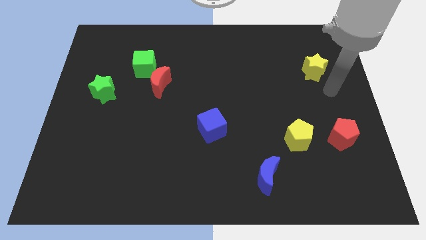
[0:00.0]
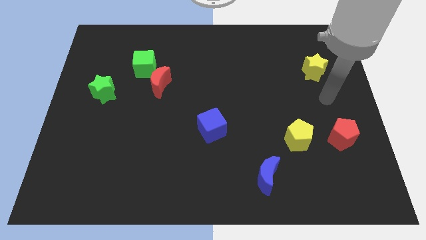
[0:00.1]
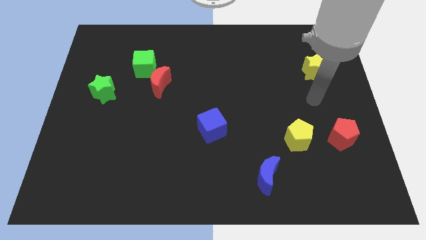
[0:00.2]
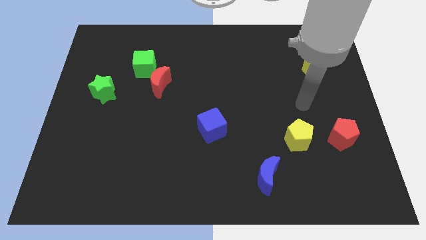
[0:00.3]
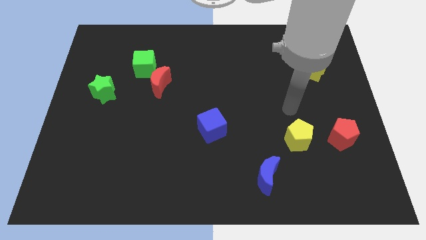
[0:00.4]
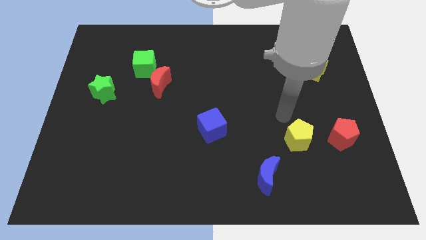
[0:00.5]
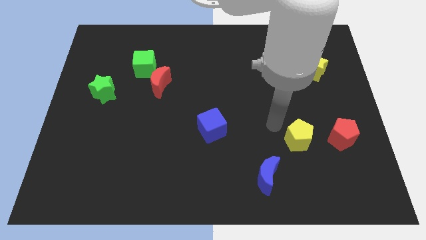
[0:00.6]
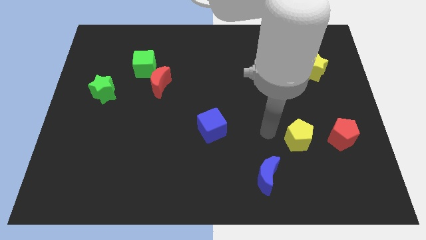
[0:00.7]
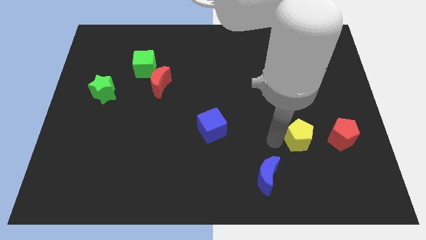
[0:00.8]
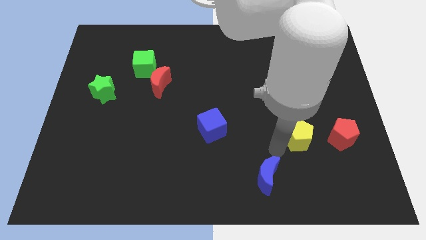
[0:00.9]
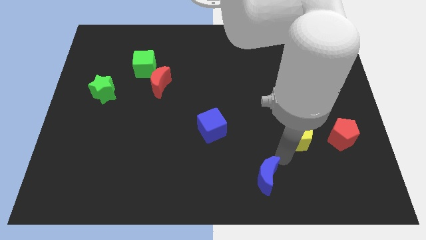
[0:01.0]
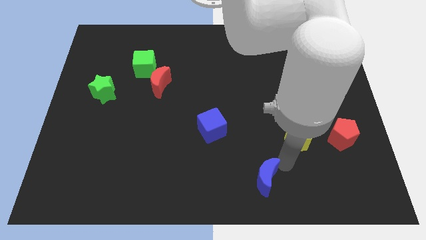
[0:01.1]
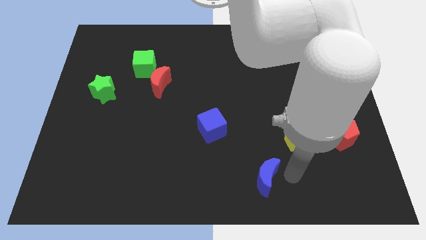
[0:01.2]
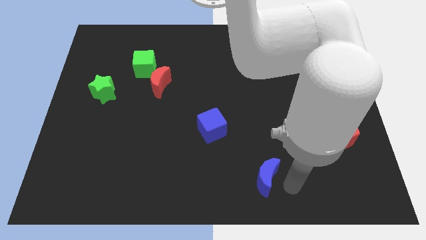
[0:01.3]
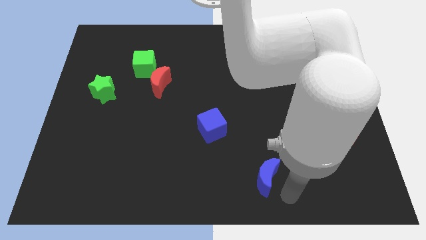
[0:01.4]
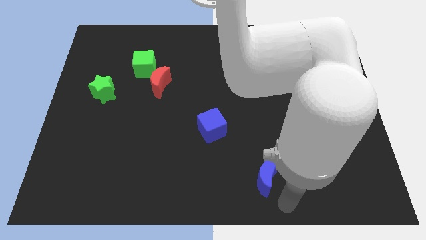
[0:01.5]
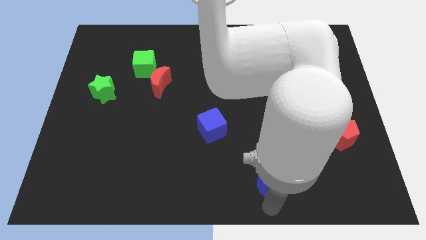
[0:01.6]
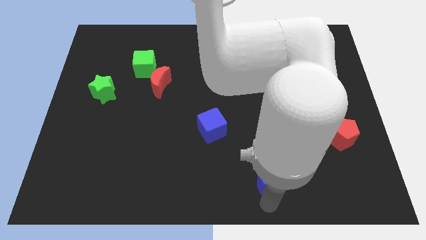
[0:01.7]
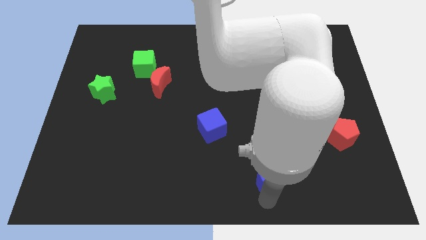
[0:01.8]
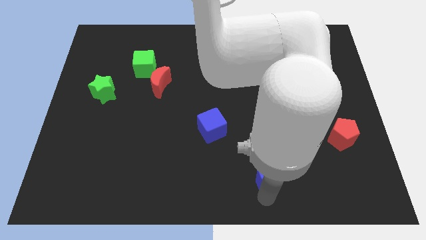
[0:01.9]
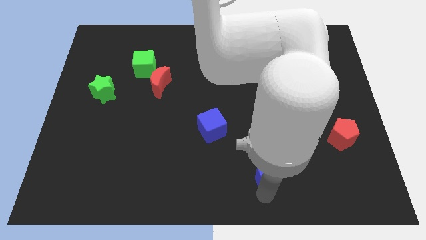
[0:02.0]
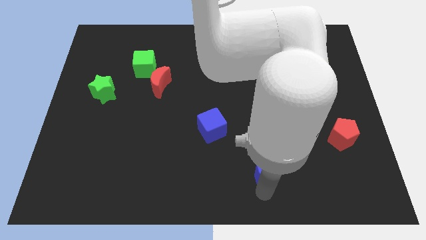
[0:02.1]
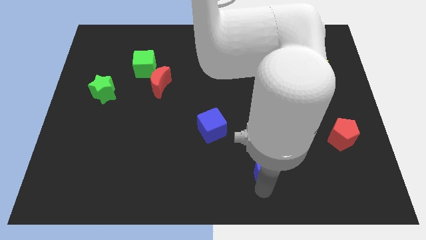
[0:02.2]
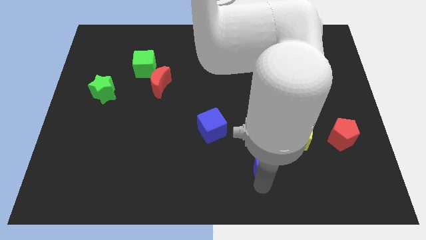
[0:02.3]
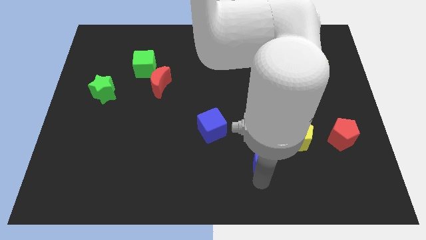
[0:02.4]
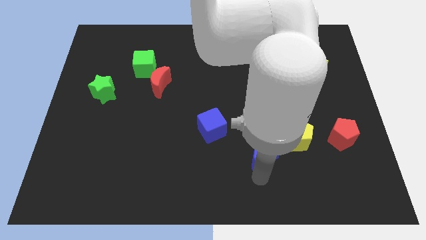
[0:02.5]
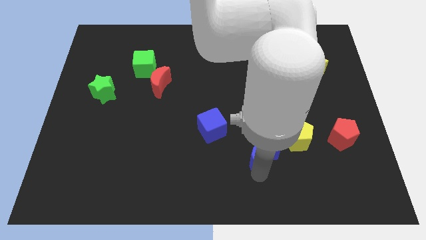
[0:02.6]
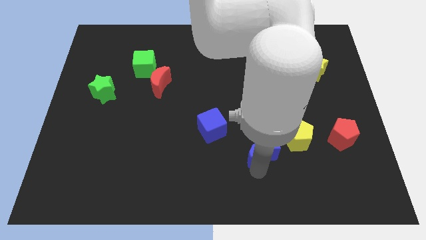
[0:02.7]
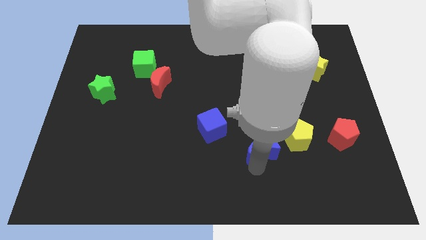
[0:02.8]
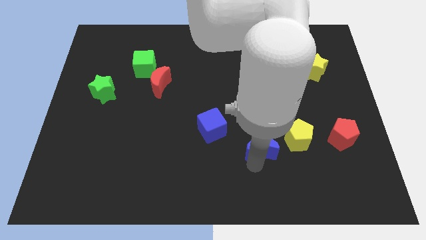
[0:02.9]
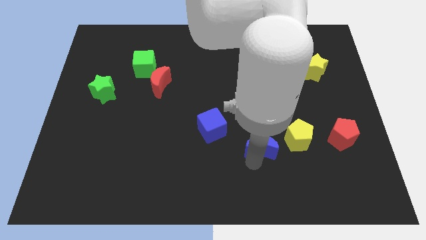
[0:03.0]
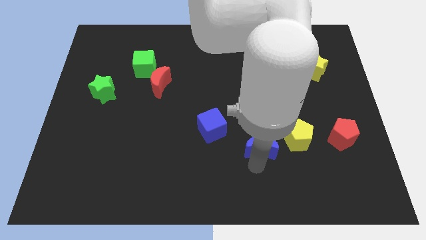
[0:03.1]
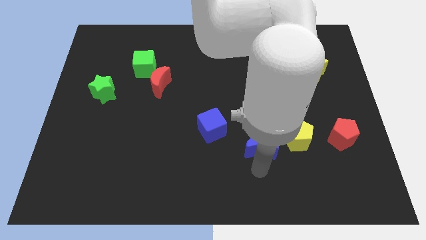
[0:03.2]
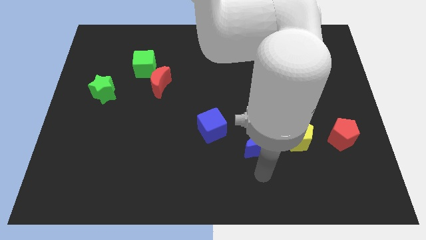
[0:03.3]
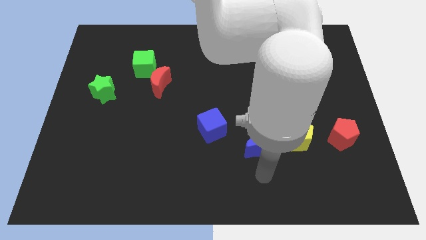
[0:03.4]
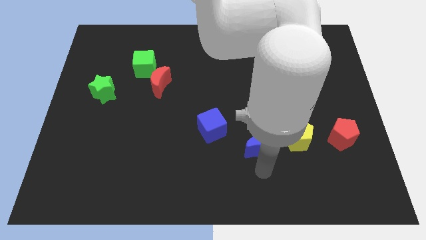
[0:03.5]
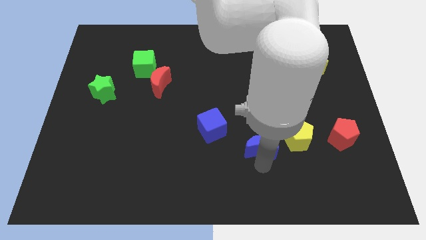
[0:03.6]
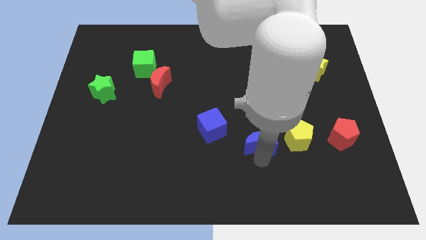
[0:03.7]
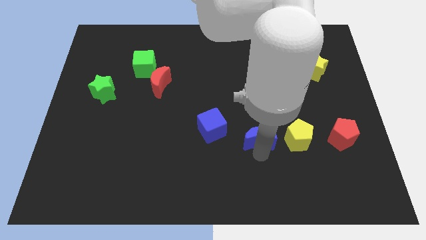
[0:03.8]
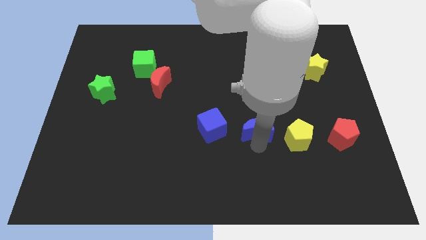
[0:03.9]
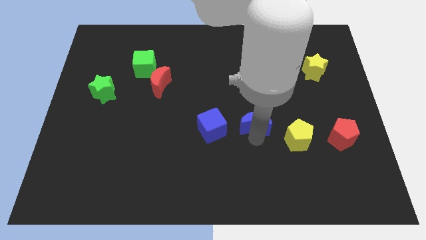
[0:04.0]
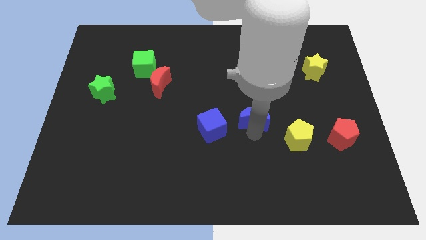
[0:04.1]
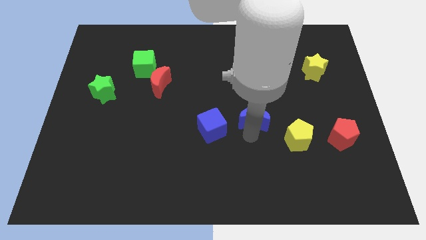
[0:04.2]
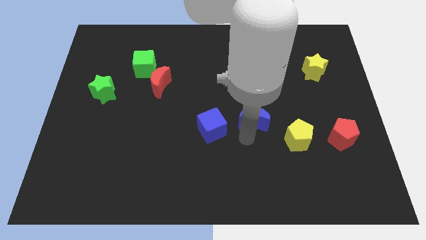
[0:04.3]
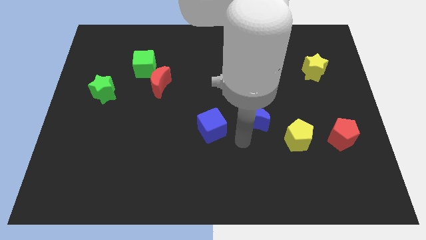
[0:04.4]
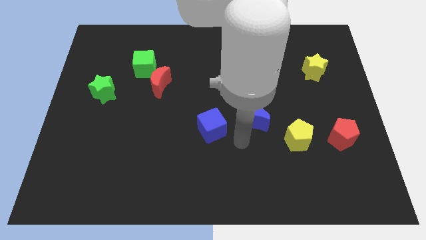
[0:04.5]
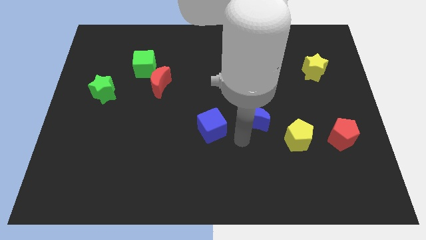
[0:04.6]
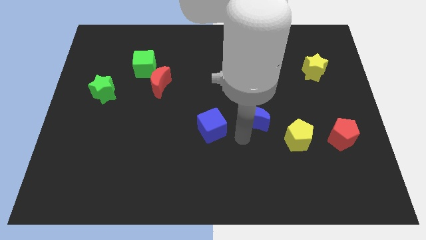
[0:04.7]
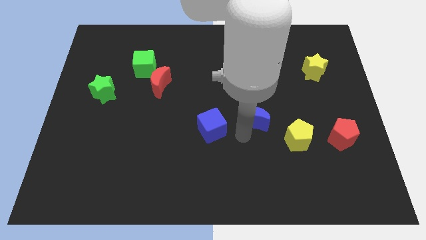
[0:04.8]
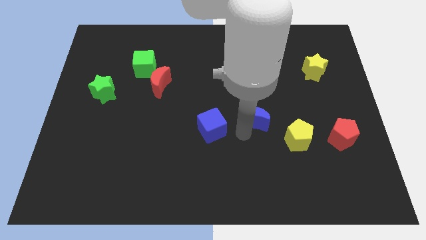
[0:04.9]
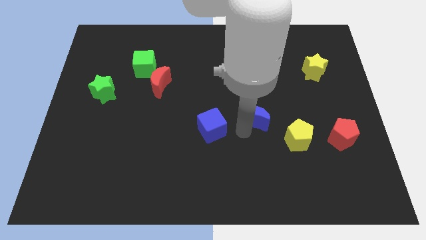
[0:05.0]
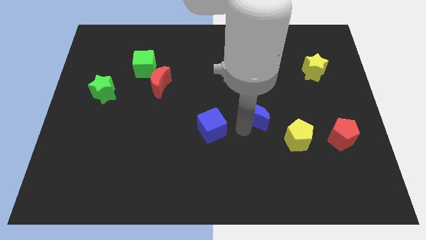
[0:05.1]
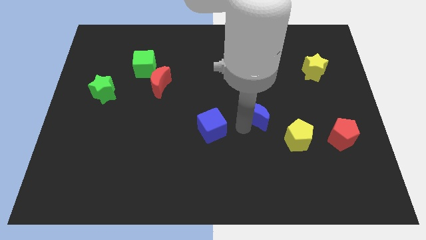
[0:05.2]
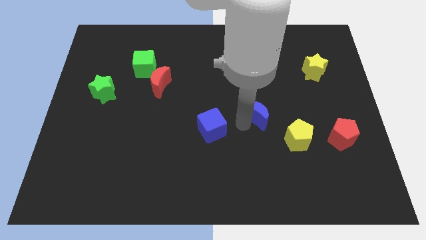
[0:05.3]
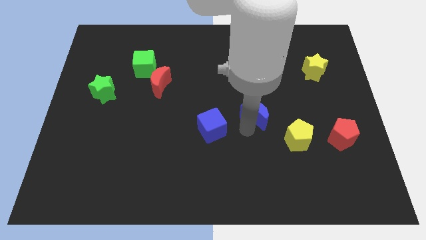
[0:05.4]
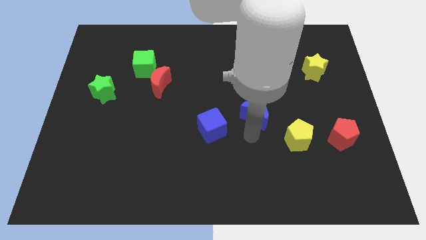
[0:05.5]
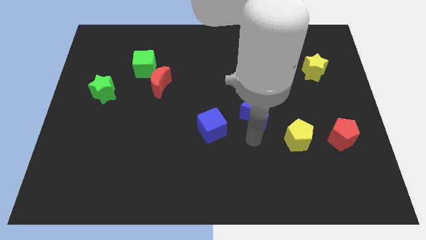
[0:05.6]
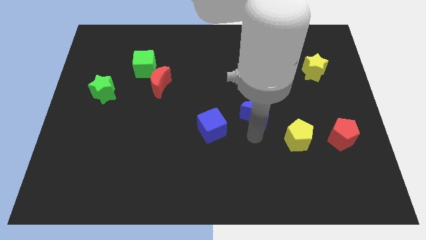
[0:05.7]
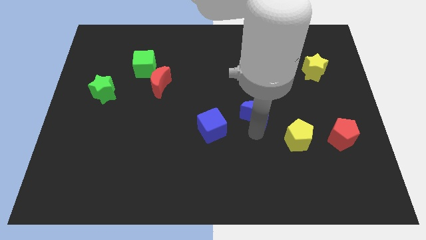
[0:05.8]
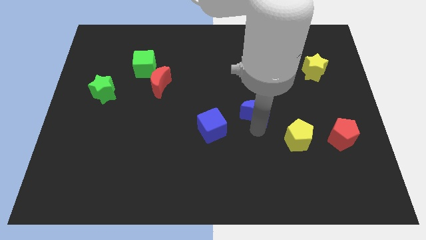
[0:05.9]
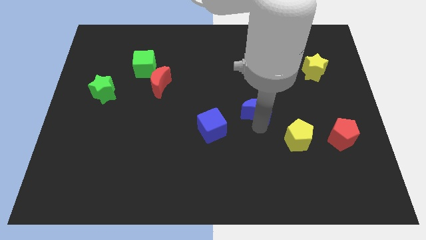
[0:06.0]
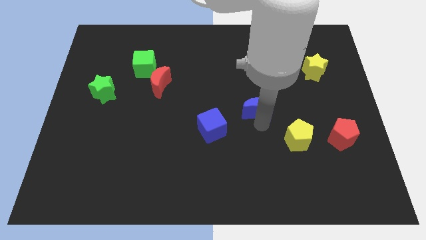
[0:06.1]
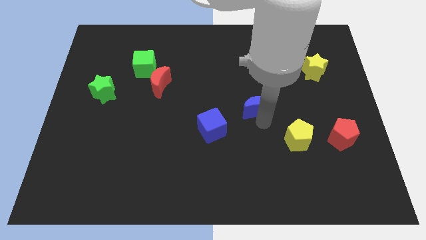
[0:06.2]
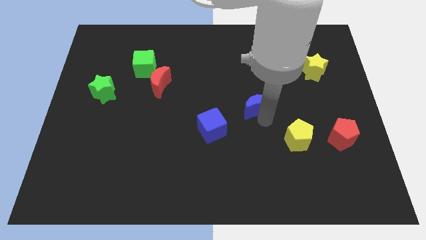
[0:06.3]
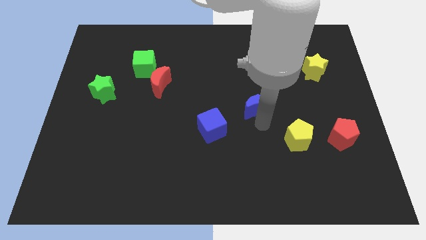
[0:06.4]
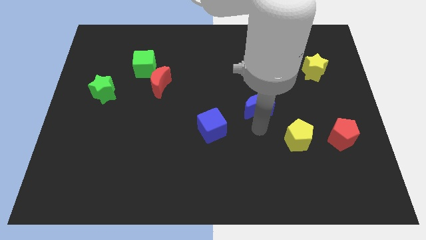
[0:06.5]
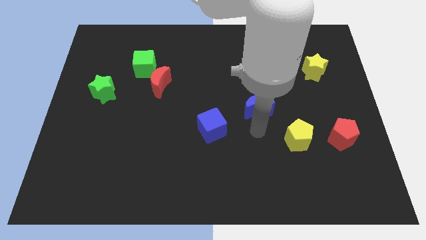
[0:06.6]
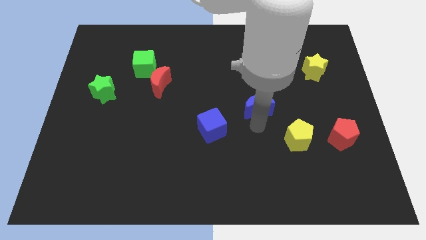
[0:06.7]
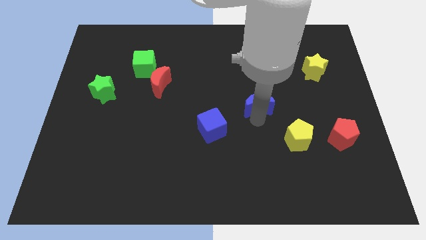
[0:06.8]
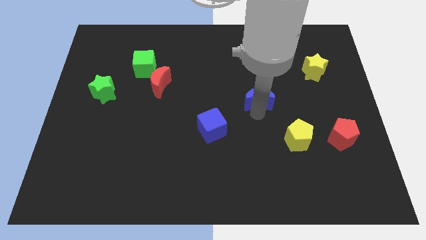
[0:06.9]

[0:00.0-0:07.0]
slide the blue moon upwards

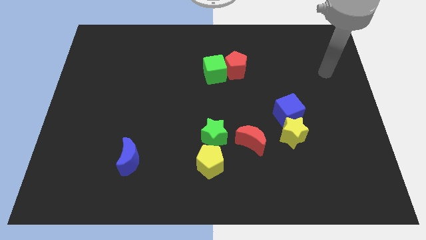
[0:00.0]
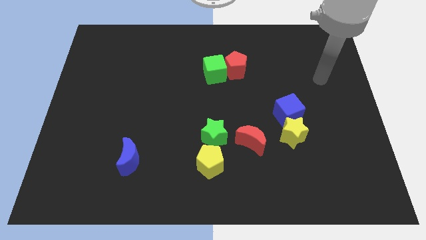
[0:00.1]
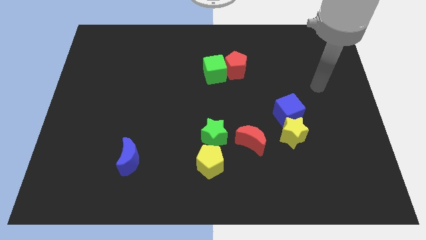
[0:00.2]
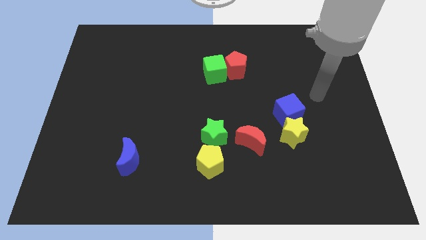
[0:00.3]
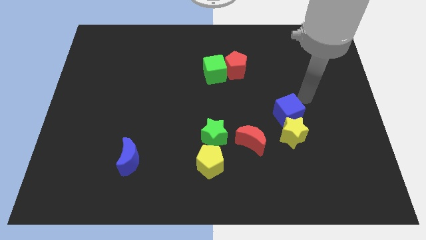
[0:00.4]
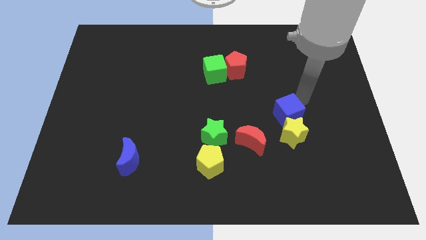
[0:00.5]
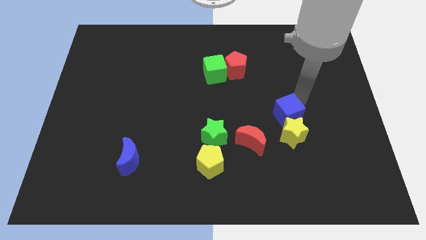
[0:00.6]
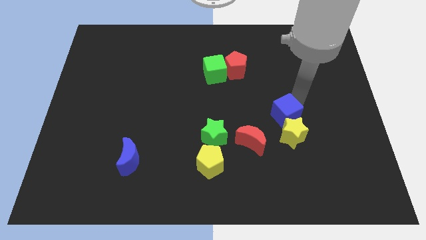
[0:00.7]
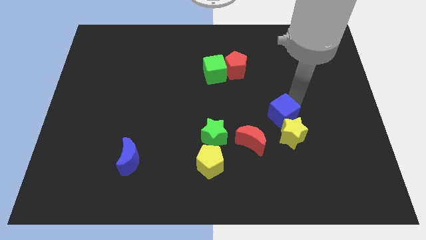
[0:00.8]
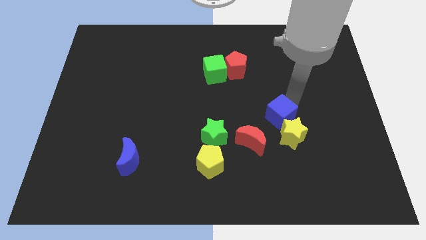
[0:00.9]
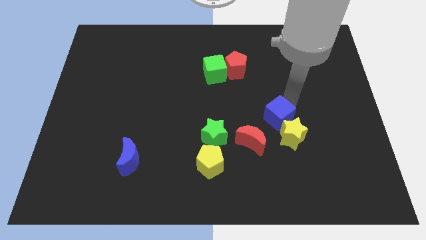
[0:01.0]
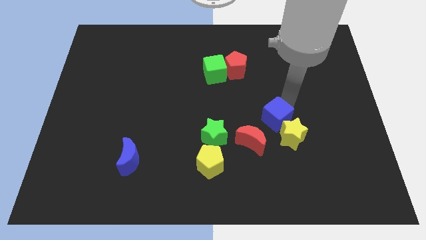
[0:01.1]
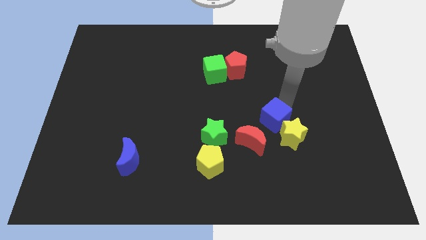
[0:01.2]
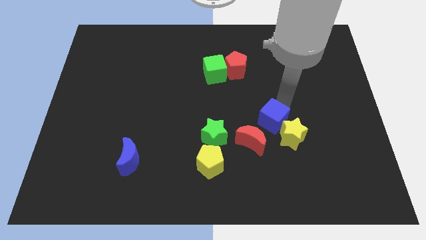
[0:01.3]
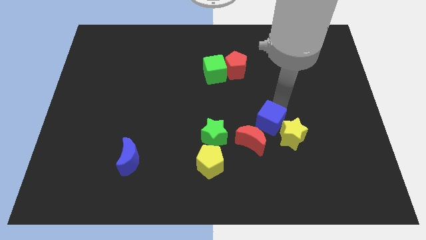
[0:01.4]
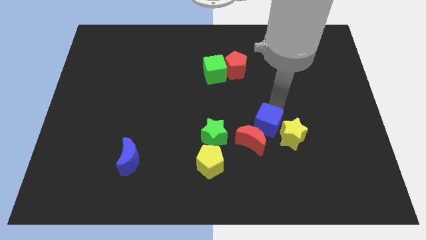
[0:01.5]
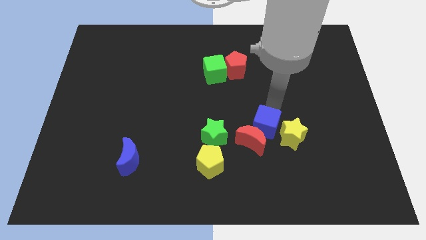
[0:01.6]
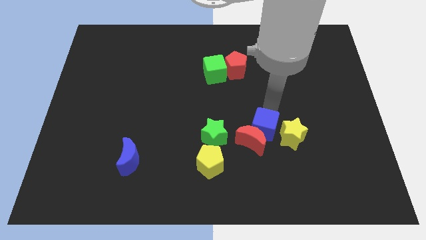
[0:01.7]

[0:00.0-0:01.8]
slightly move the blue cube diagonally down and to the left
